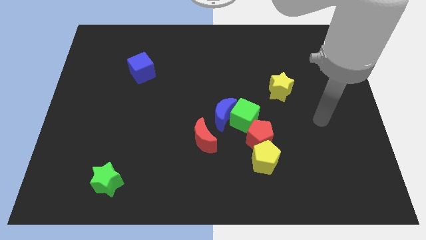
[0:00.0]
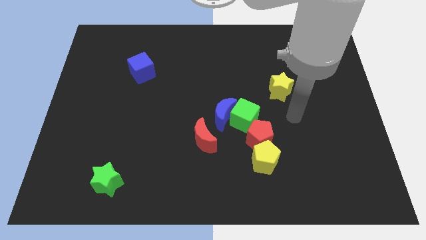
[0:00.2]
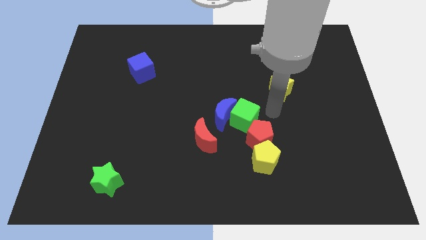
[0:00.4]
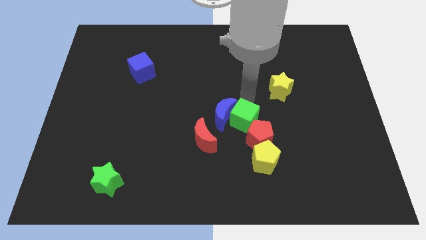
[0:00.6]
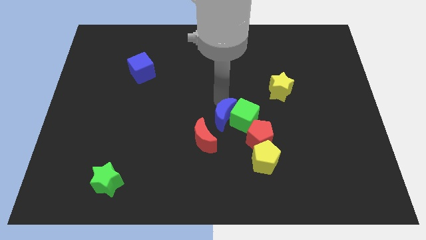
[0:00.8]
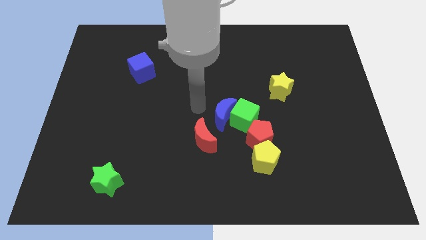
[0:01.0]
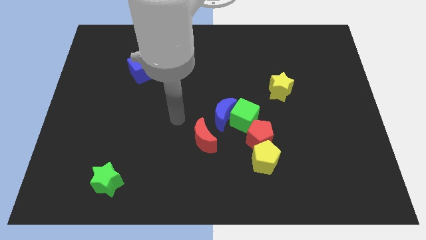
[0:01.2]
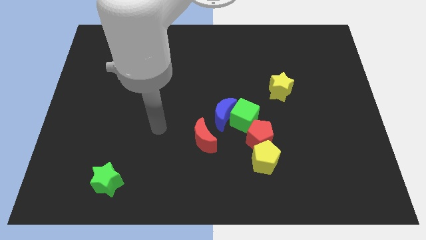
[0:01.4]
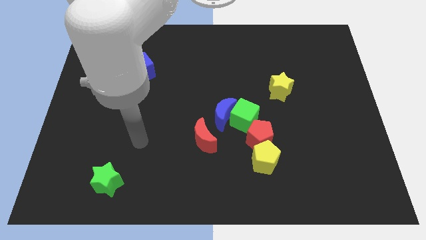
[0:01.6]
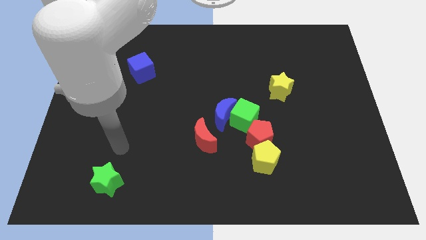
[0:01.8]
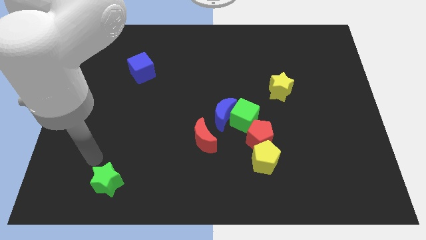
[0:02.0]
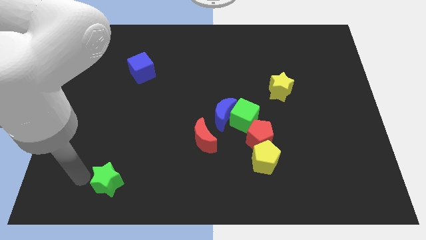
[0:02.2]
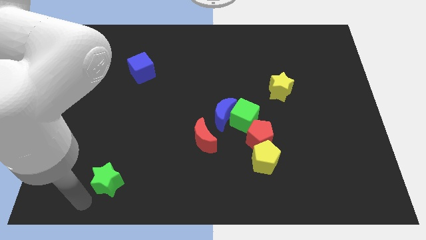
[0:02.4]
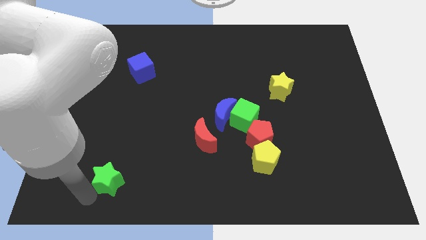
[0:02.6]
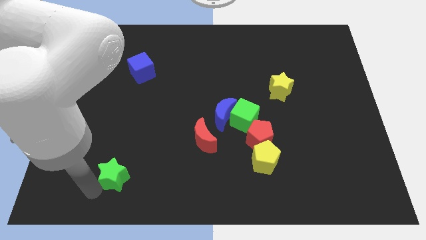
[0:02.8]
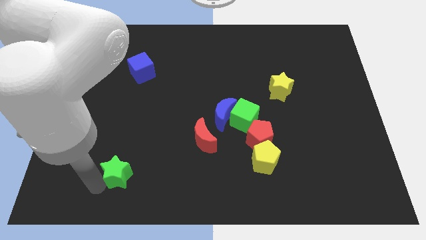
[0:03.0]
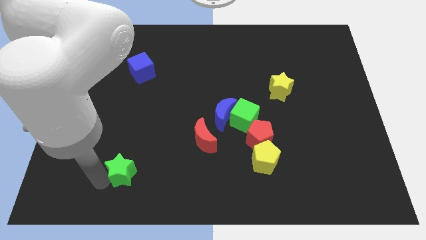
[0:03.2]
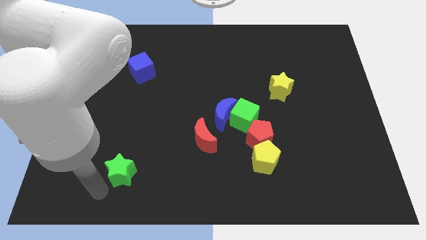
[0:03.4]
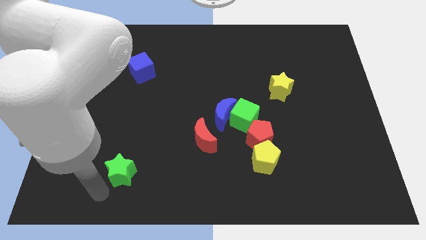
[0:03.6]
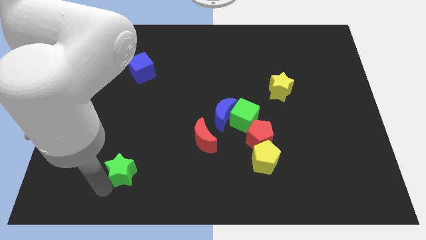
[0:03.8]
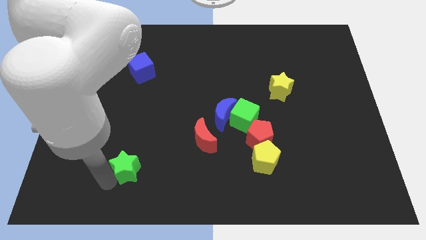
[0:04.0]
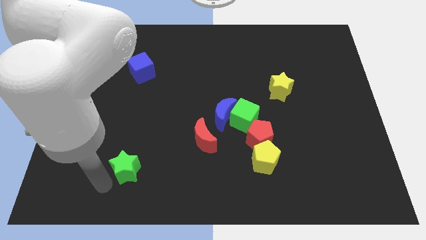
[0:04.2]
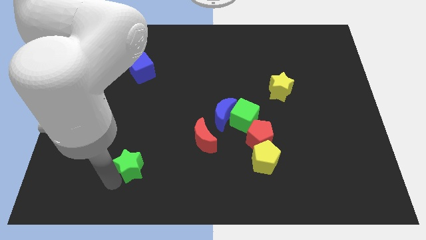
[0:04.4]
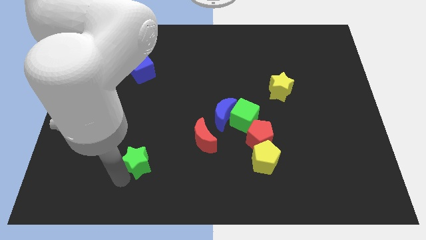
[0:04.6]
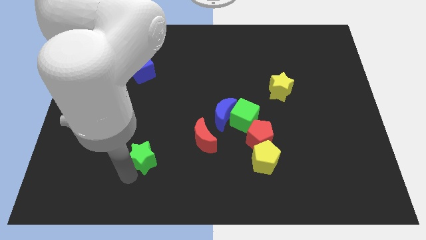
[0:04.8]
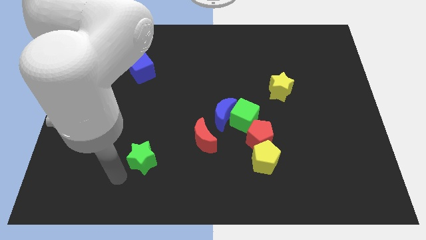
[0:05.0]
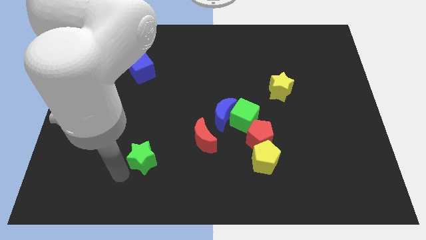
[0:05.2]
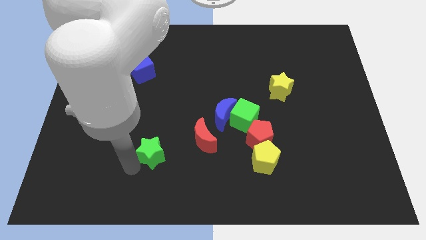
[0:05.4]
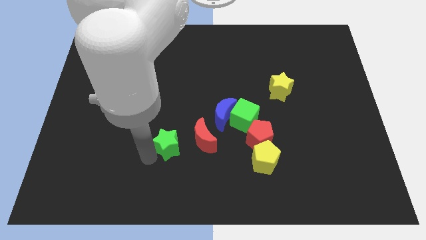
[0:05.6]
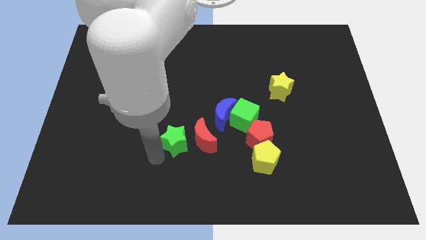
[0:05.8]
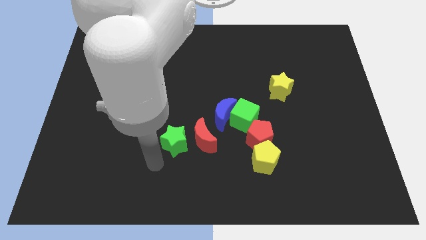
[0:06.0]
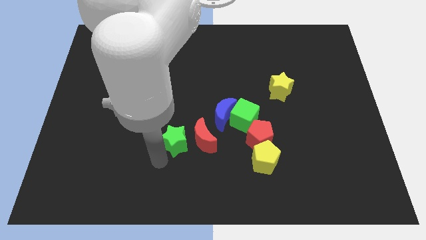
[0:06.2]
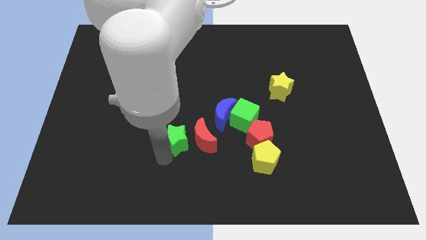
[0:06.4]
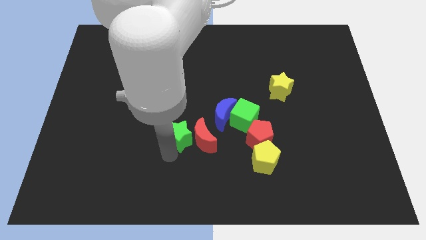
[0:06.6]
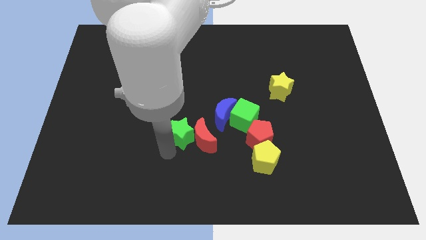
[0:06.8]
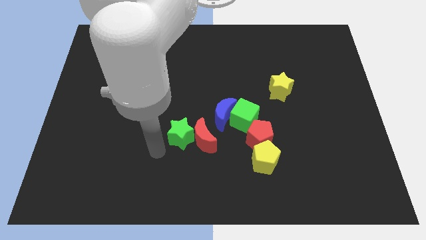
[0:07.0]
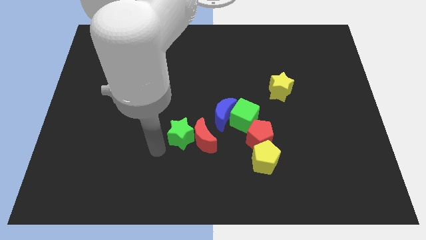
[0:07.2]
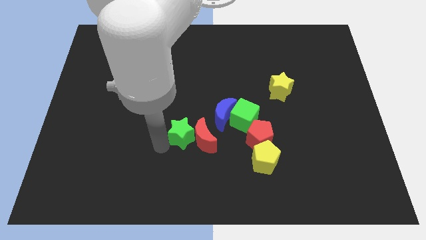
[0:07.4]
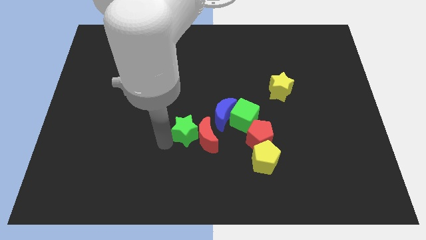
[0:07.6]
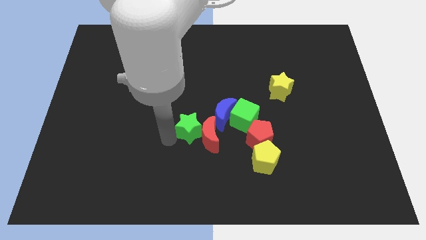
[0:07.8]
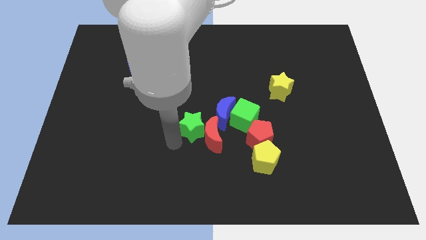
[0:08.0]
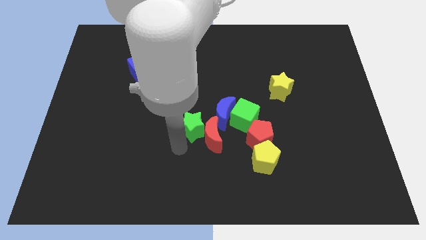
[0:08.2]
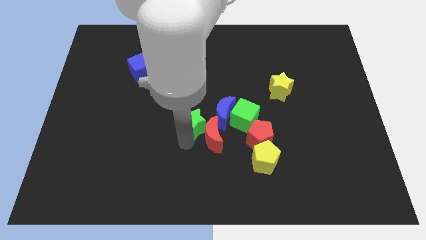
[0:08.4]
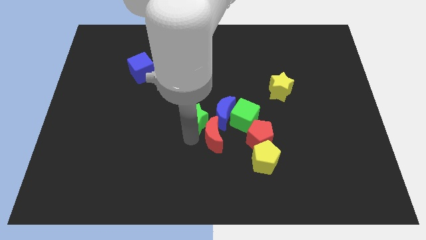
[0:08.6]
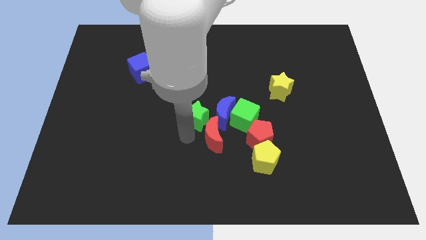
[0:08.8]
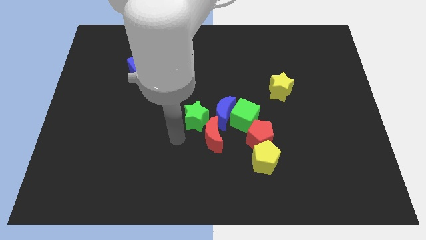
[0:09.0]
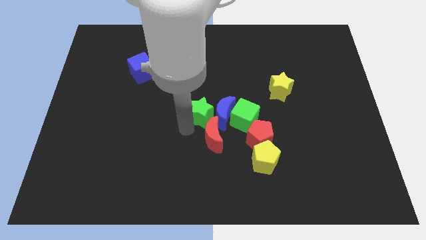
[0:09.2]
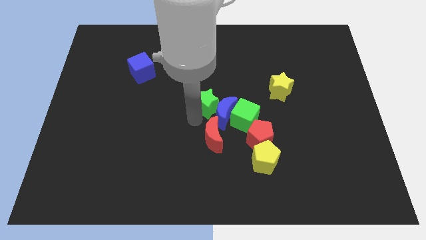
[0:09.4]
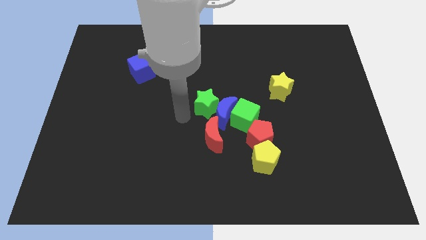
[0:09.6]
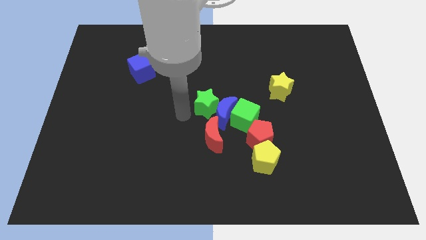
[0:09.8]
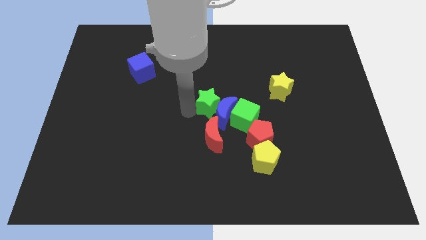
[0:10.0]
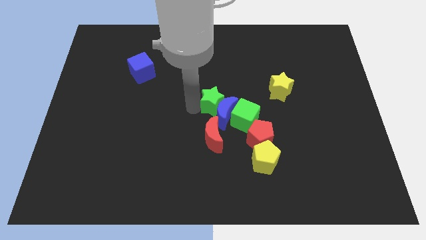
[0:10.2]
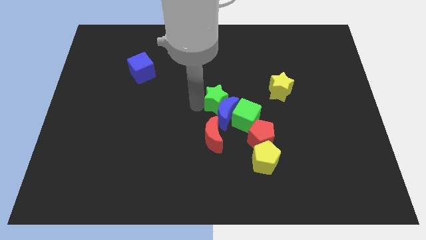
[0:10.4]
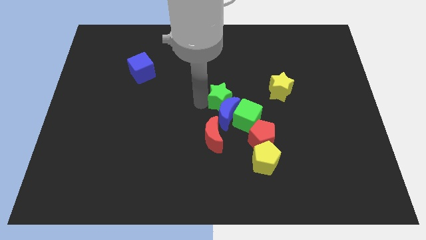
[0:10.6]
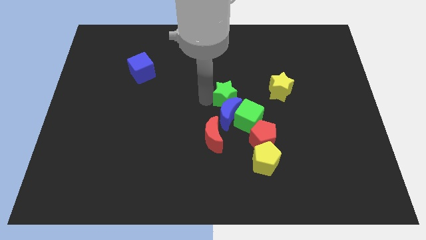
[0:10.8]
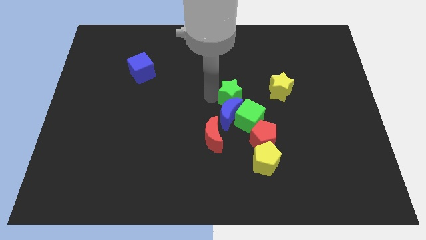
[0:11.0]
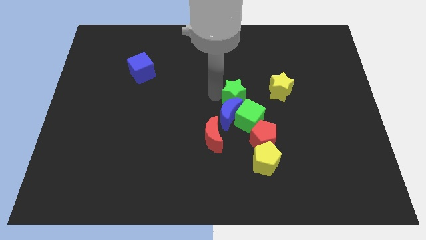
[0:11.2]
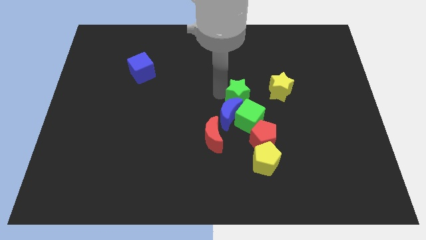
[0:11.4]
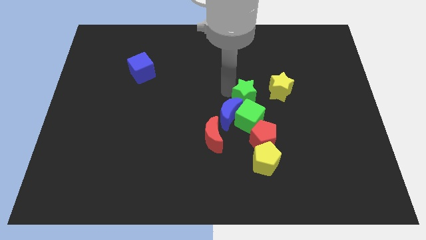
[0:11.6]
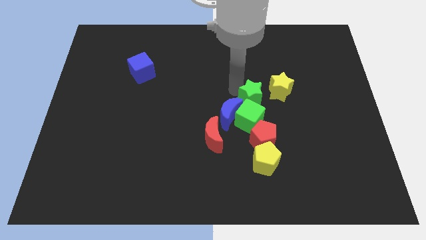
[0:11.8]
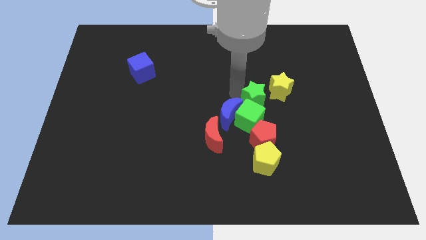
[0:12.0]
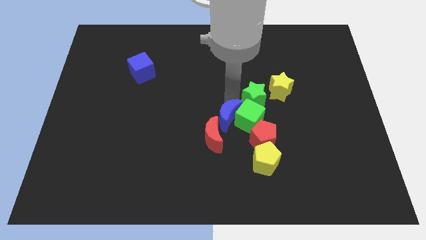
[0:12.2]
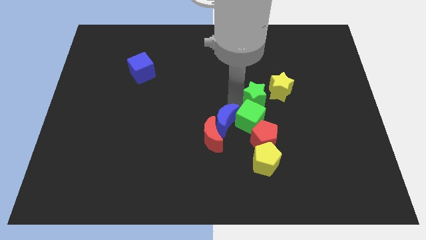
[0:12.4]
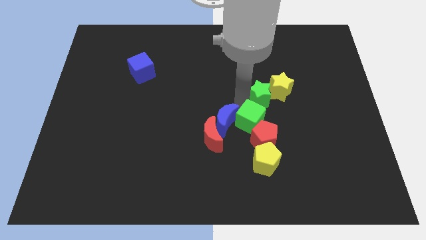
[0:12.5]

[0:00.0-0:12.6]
move the green star to the yellow star

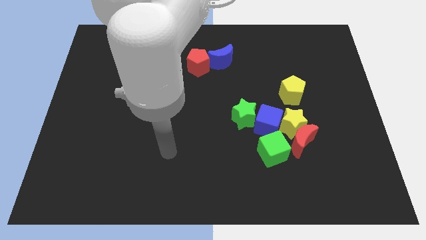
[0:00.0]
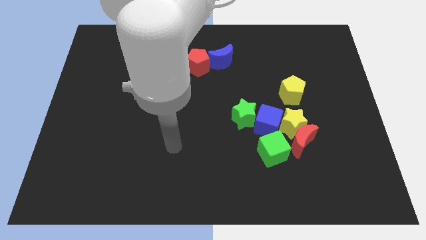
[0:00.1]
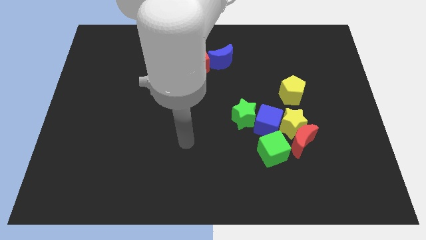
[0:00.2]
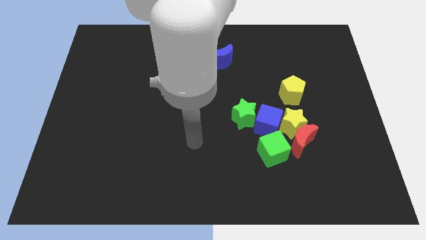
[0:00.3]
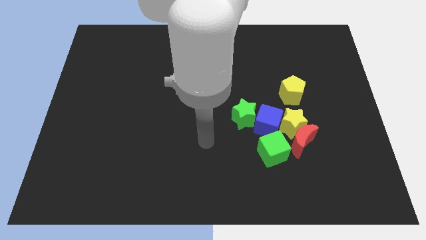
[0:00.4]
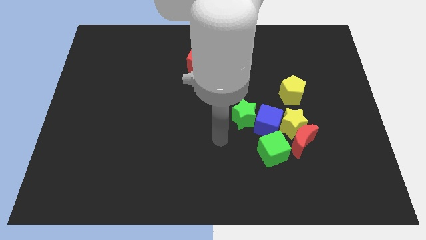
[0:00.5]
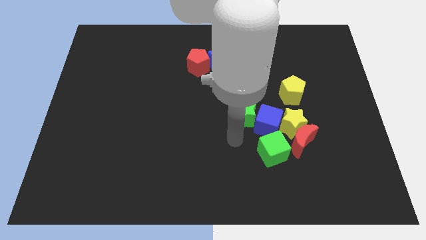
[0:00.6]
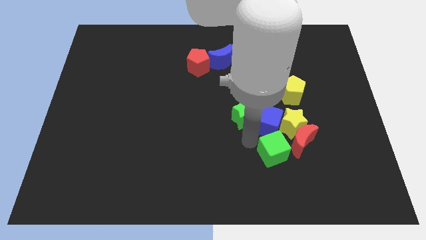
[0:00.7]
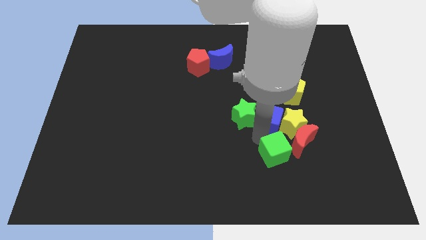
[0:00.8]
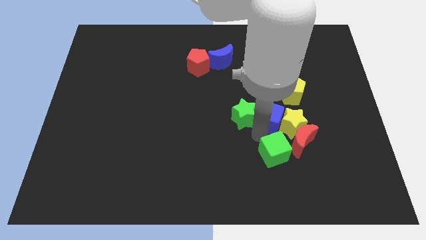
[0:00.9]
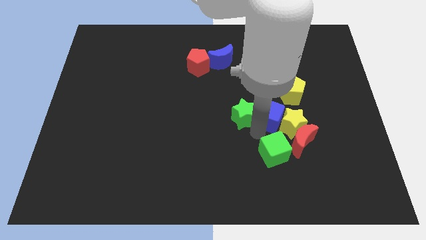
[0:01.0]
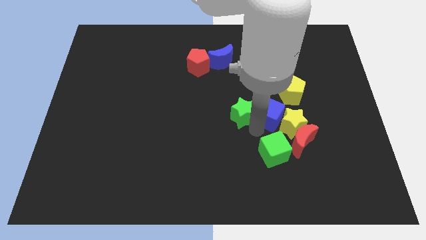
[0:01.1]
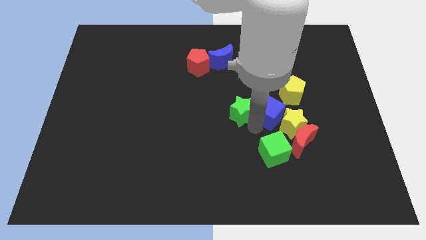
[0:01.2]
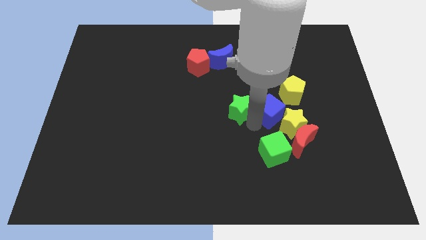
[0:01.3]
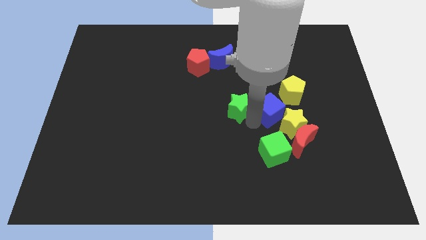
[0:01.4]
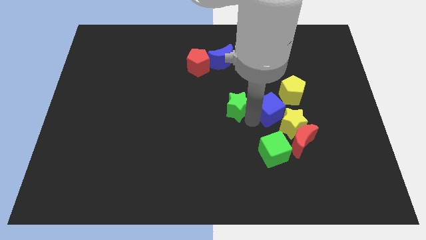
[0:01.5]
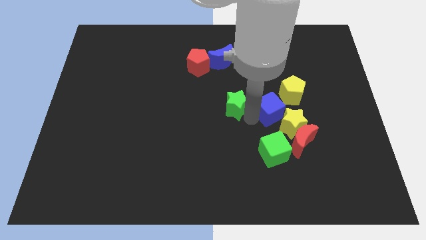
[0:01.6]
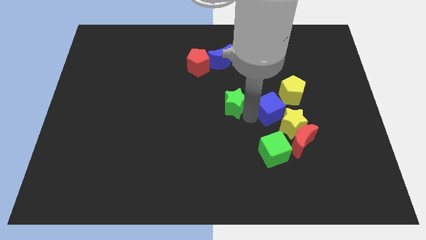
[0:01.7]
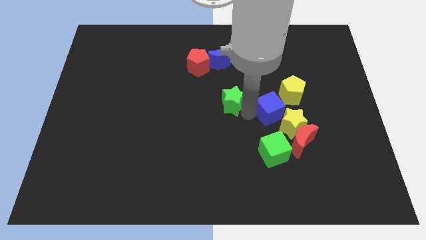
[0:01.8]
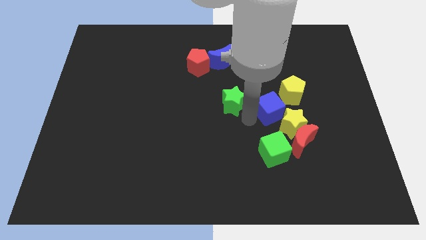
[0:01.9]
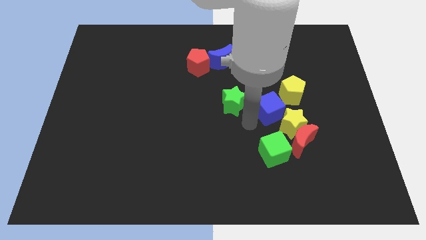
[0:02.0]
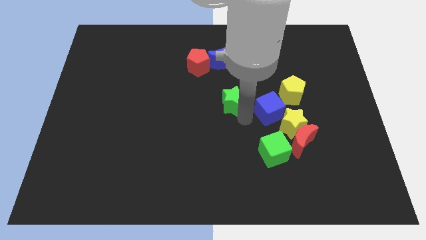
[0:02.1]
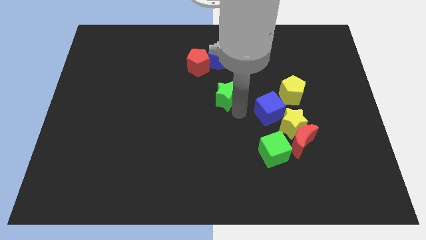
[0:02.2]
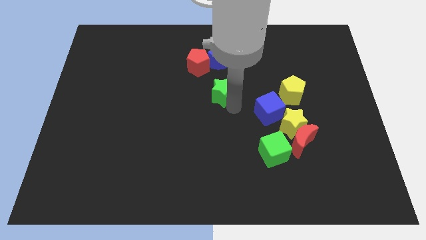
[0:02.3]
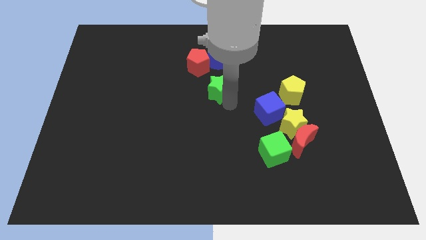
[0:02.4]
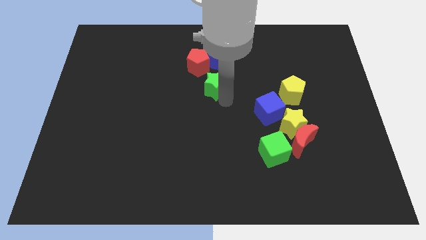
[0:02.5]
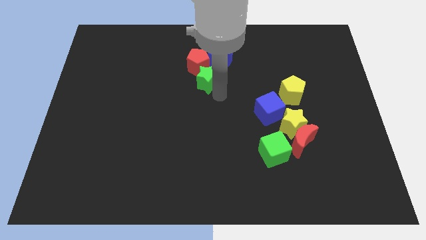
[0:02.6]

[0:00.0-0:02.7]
slide the green star towards the red pentagon
